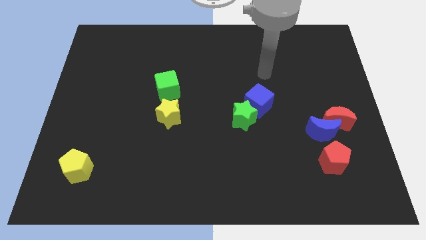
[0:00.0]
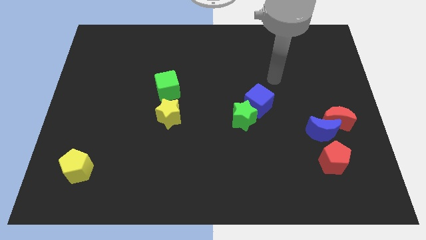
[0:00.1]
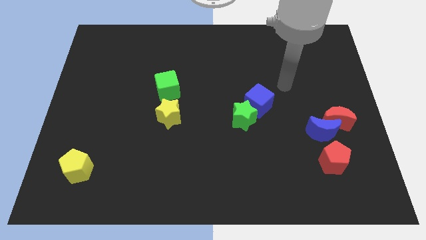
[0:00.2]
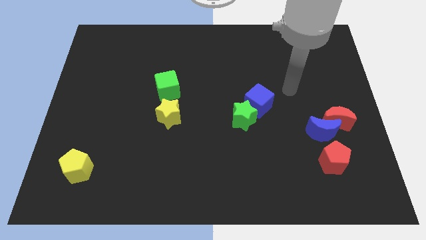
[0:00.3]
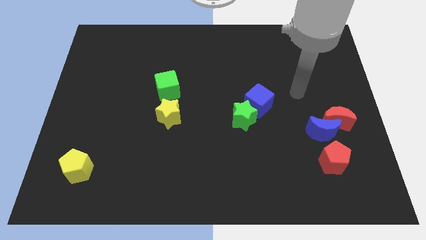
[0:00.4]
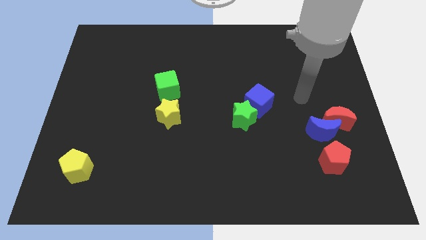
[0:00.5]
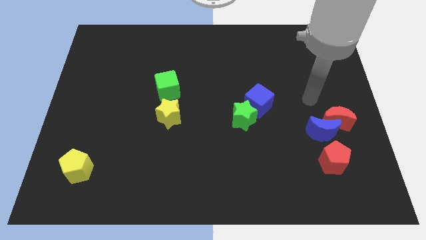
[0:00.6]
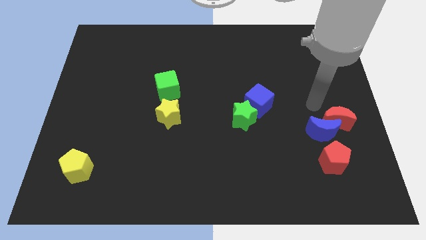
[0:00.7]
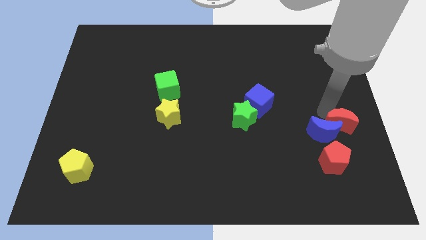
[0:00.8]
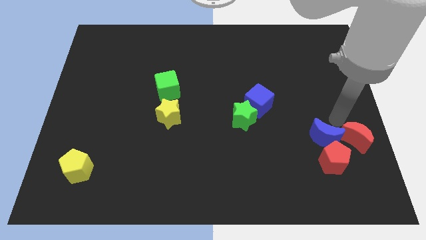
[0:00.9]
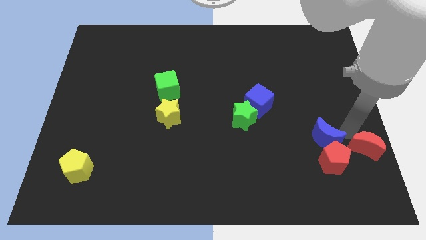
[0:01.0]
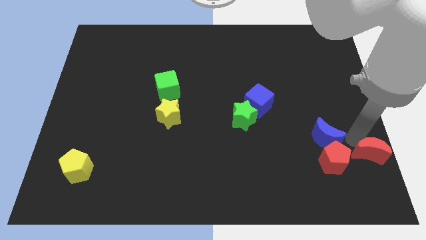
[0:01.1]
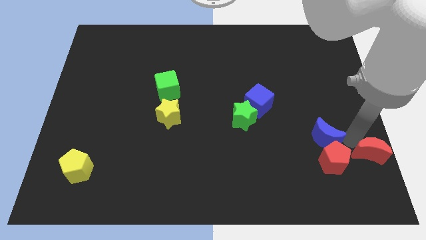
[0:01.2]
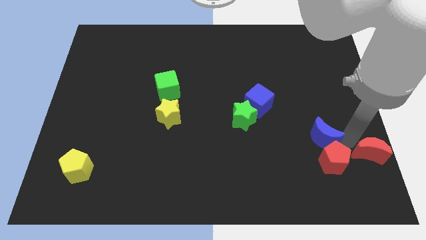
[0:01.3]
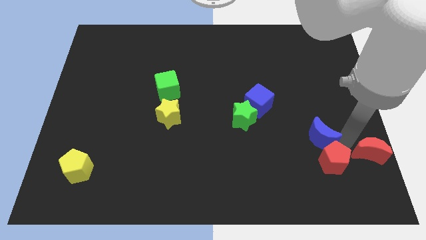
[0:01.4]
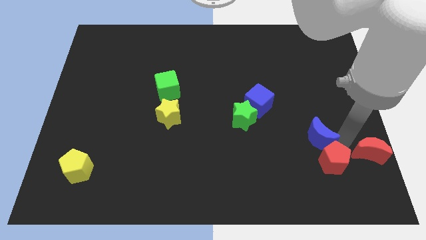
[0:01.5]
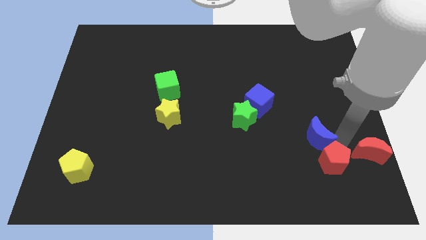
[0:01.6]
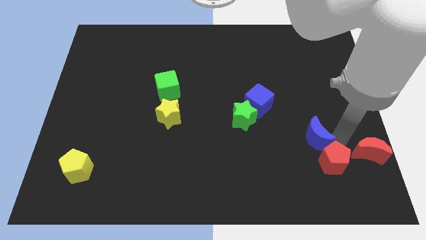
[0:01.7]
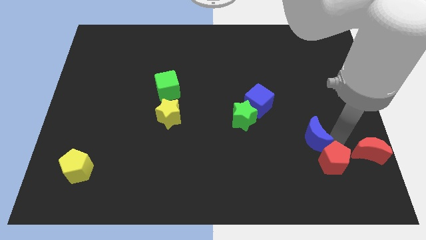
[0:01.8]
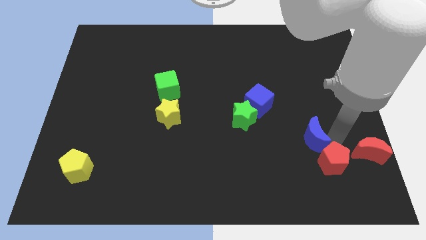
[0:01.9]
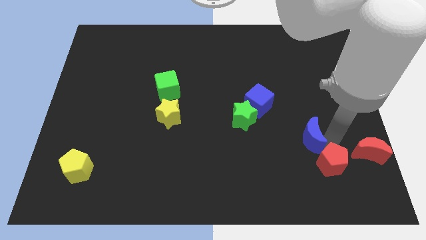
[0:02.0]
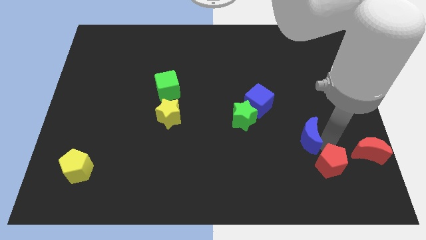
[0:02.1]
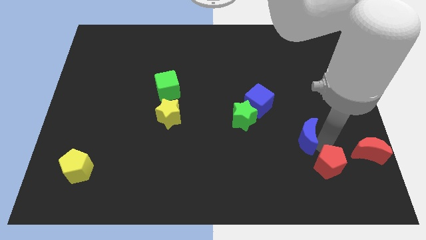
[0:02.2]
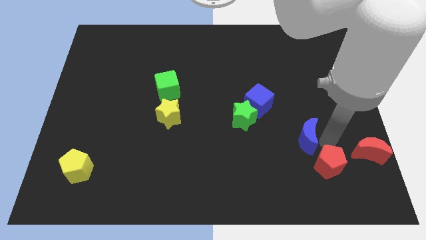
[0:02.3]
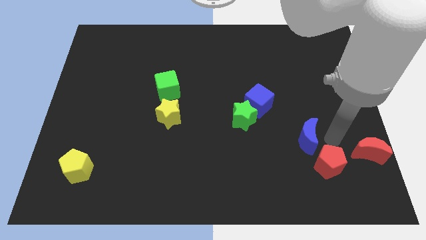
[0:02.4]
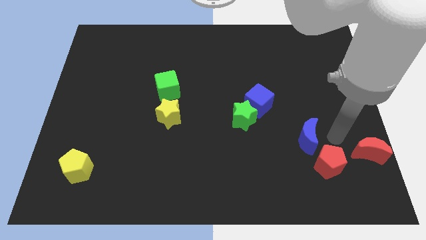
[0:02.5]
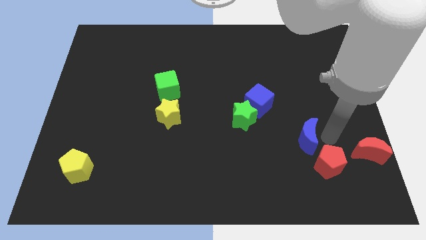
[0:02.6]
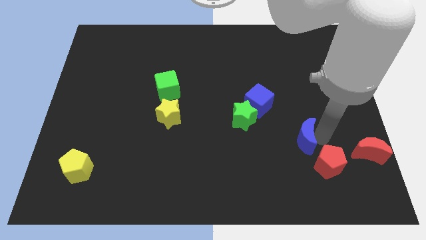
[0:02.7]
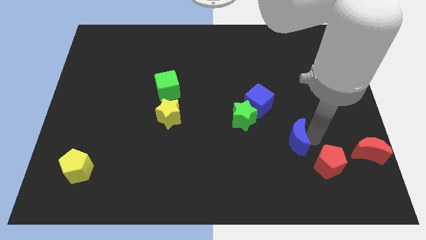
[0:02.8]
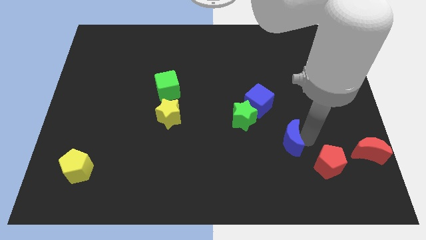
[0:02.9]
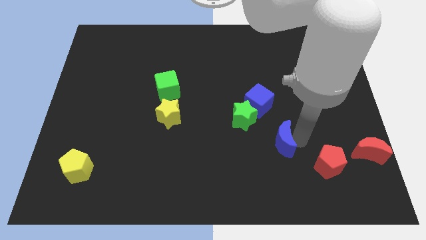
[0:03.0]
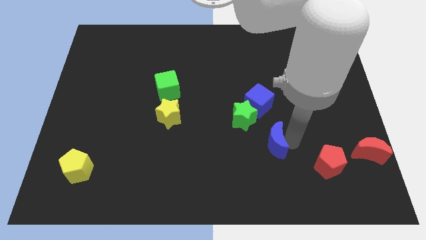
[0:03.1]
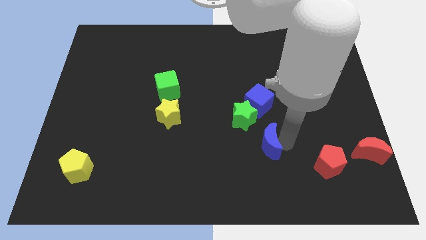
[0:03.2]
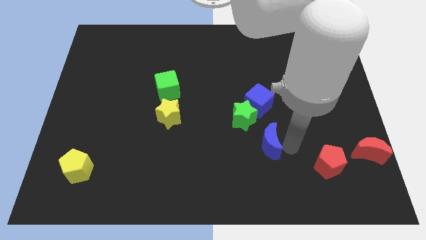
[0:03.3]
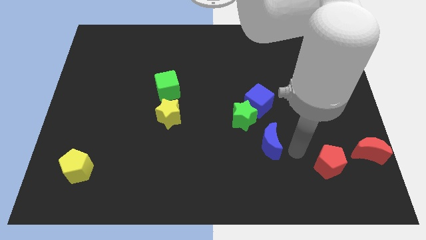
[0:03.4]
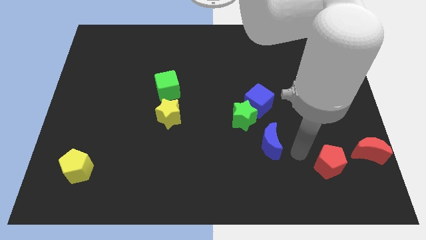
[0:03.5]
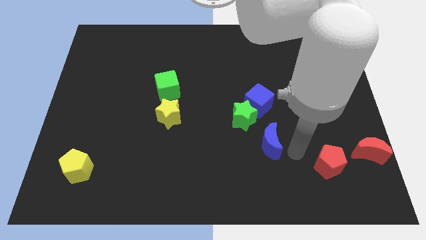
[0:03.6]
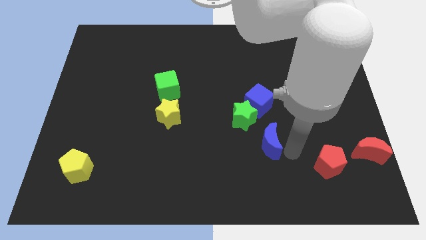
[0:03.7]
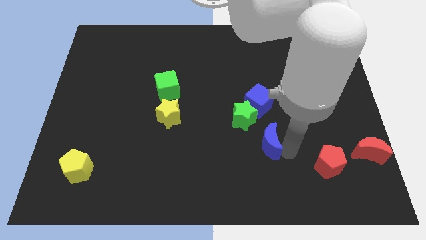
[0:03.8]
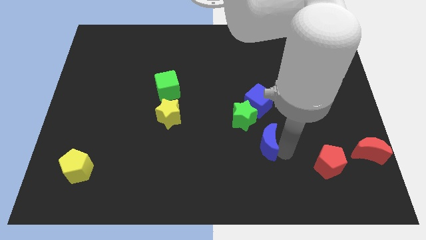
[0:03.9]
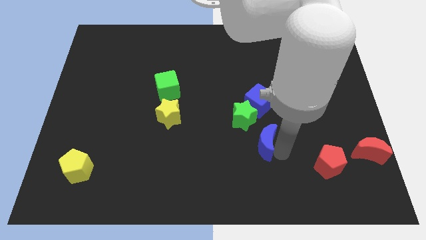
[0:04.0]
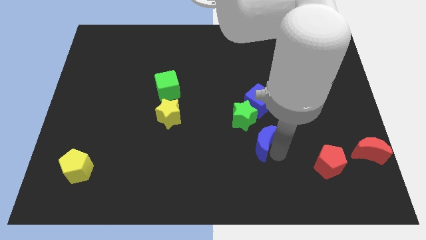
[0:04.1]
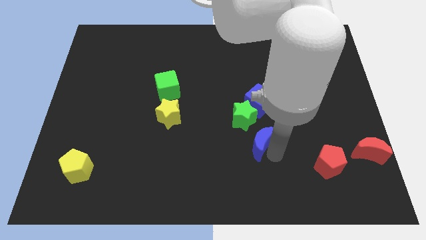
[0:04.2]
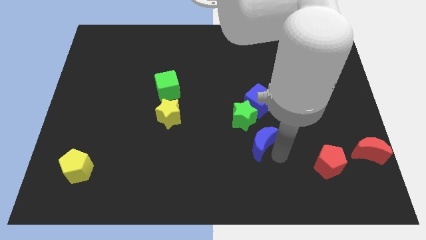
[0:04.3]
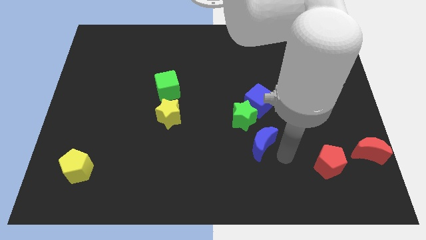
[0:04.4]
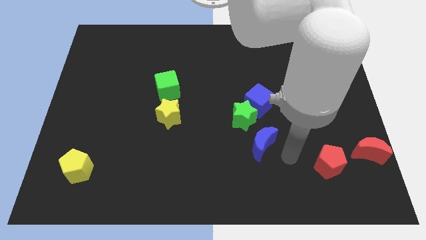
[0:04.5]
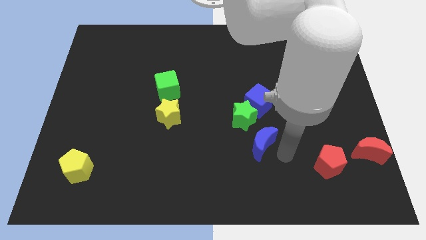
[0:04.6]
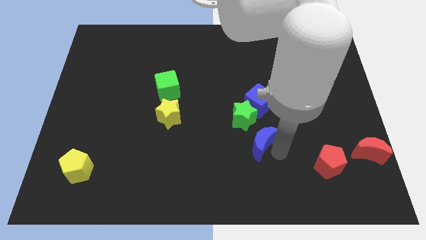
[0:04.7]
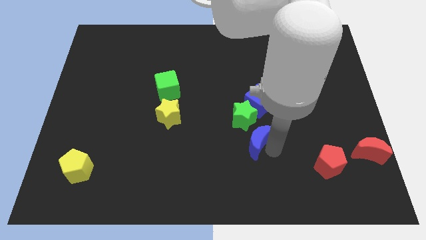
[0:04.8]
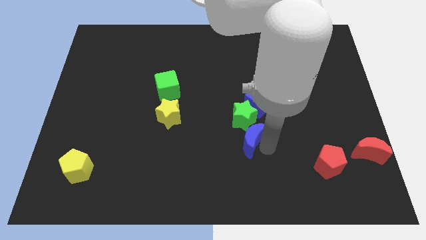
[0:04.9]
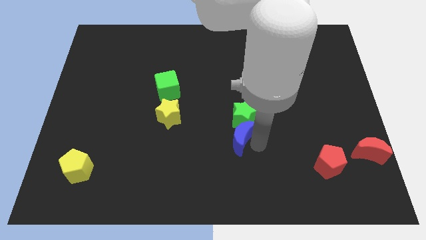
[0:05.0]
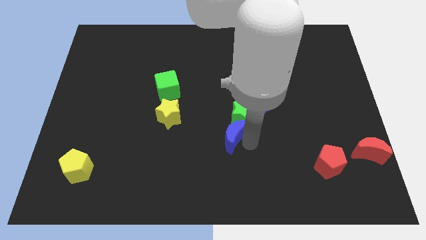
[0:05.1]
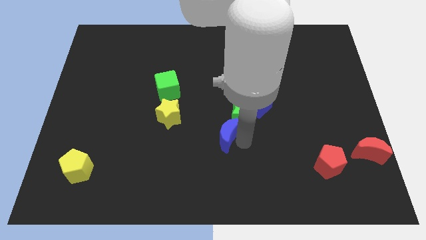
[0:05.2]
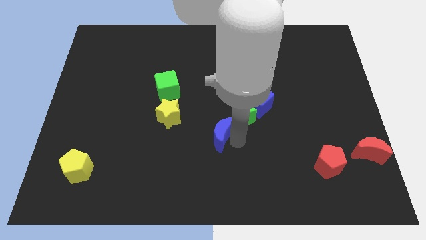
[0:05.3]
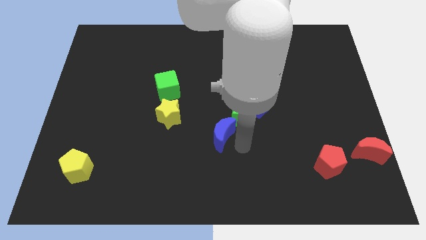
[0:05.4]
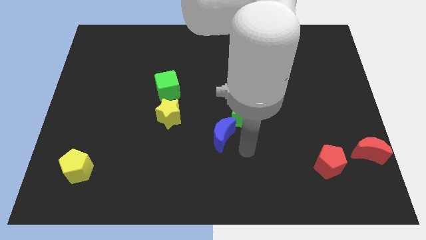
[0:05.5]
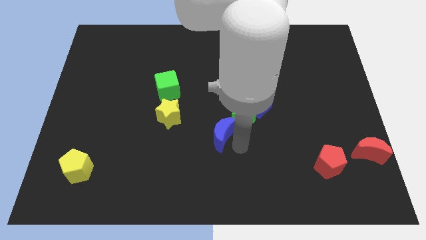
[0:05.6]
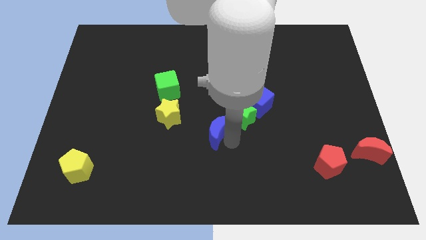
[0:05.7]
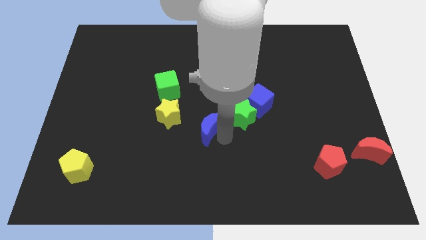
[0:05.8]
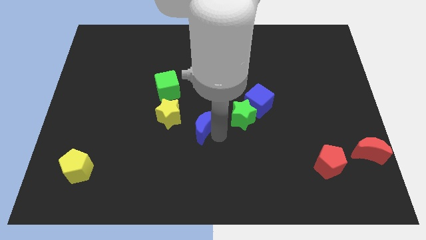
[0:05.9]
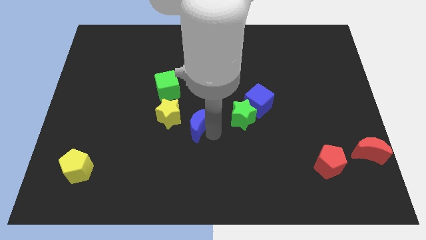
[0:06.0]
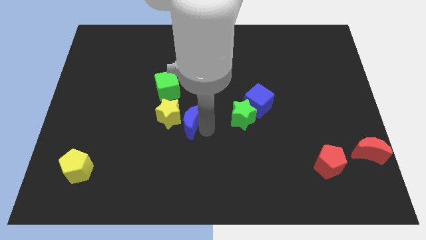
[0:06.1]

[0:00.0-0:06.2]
move the blue moon next to the yellow star

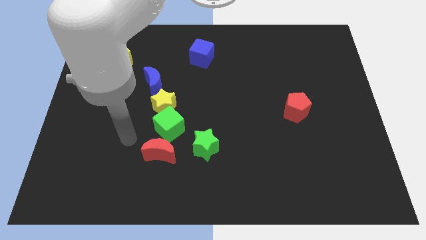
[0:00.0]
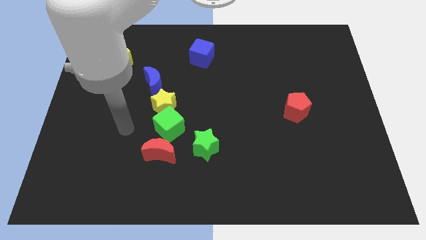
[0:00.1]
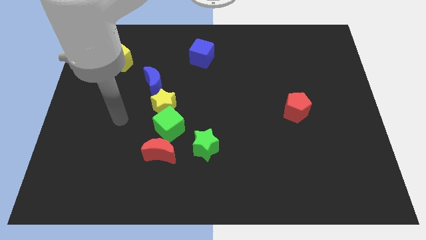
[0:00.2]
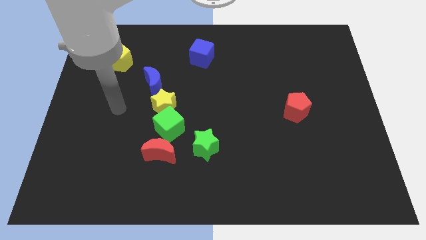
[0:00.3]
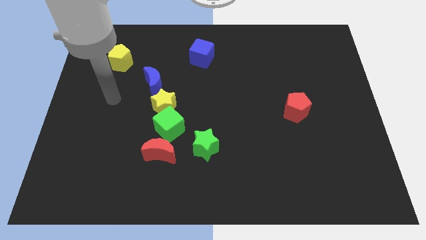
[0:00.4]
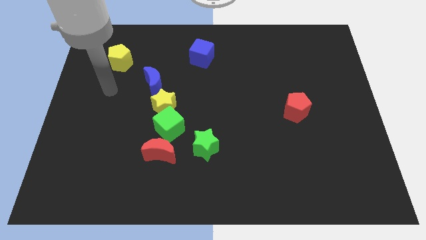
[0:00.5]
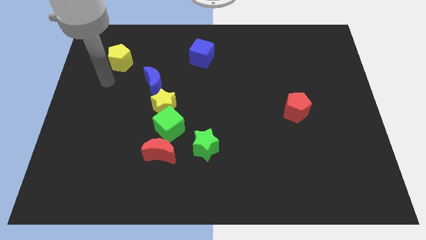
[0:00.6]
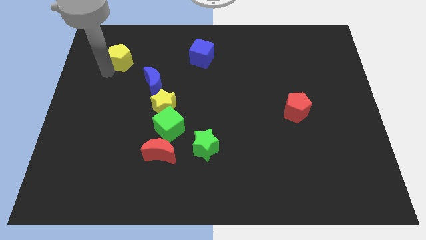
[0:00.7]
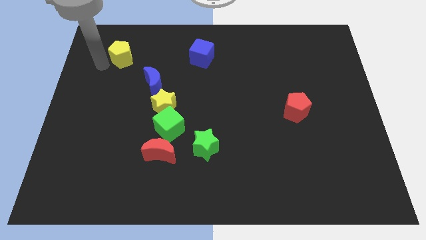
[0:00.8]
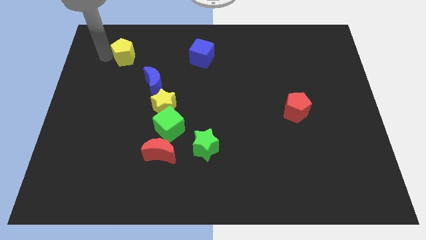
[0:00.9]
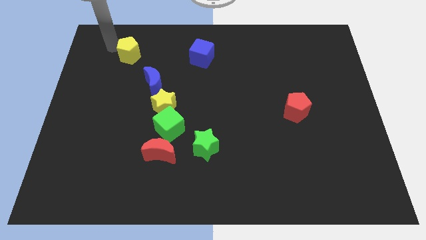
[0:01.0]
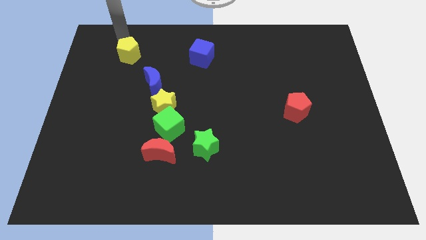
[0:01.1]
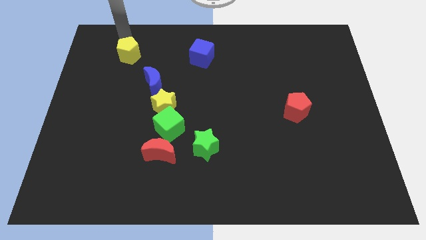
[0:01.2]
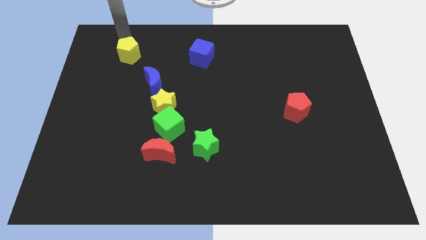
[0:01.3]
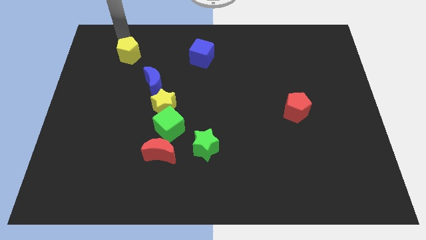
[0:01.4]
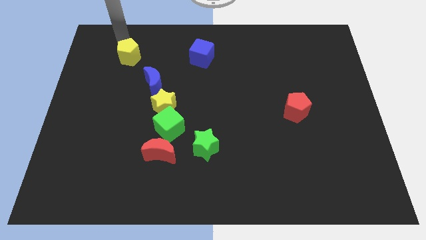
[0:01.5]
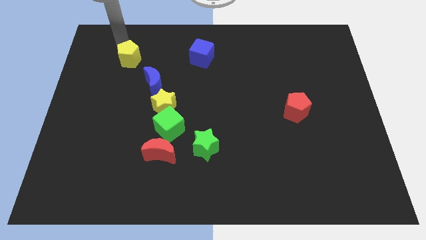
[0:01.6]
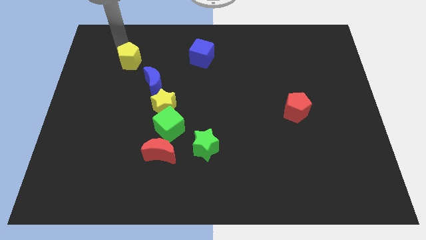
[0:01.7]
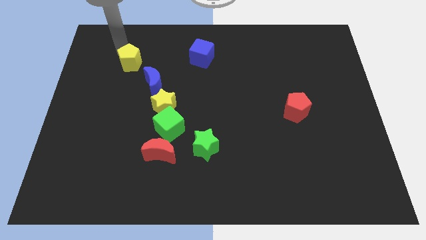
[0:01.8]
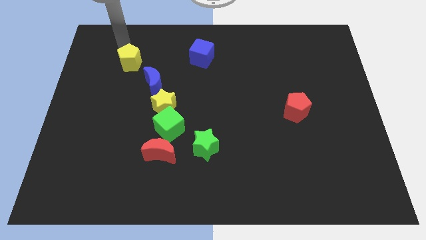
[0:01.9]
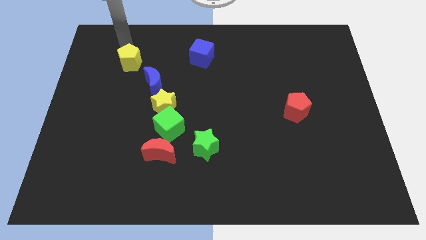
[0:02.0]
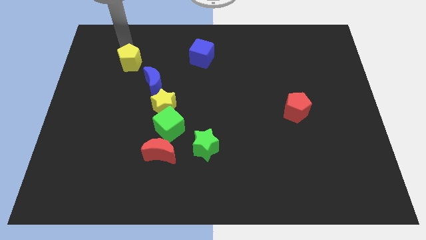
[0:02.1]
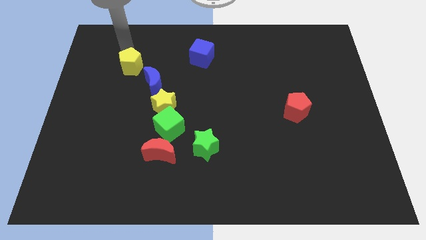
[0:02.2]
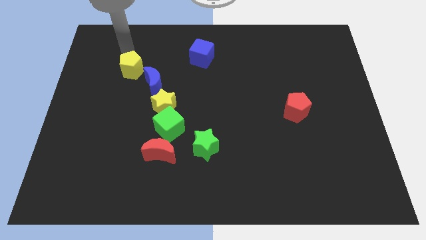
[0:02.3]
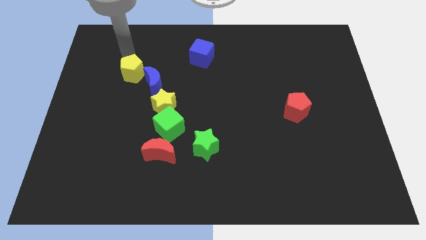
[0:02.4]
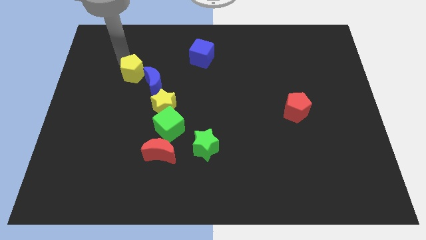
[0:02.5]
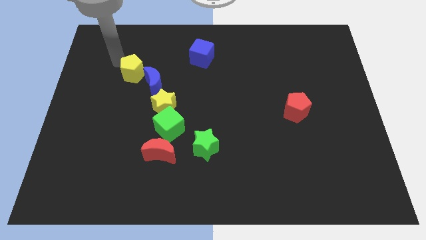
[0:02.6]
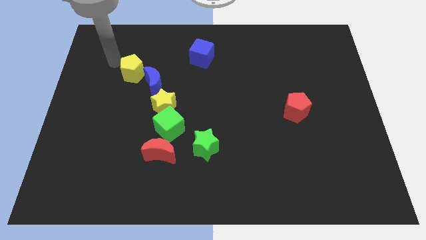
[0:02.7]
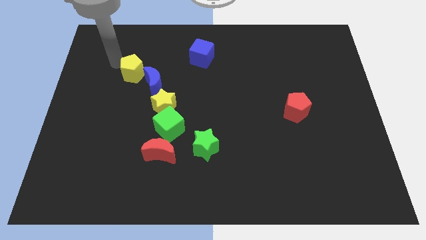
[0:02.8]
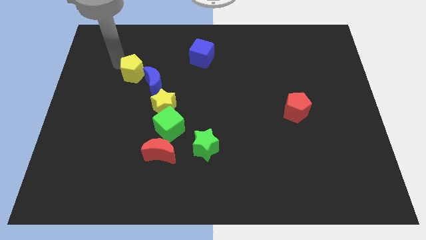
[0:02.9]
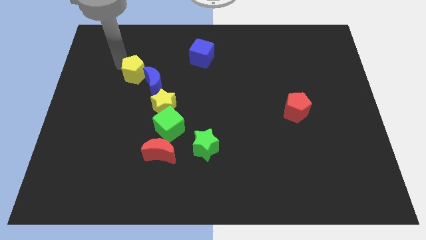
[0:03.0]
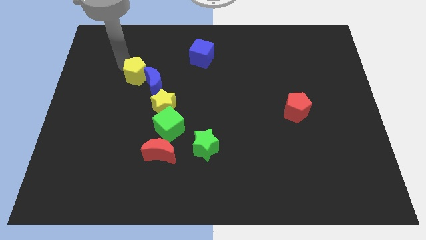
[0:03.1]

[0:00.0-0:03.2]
slide the yellow pentagon close to the blue moon
